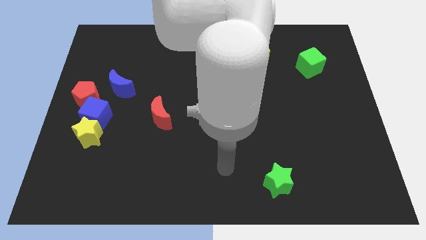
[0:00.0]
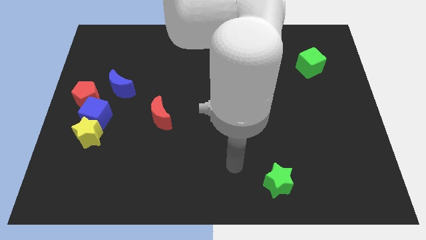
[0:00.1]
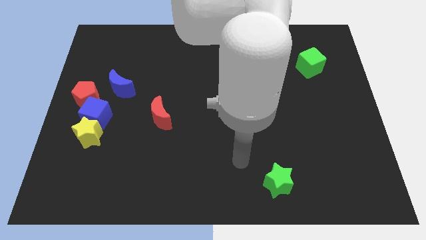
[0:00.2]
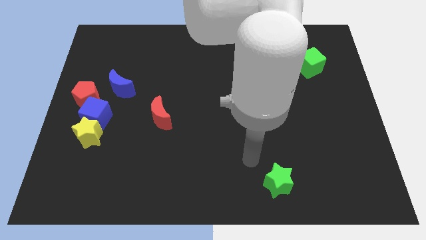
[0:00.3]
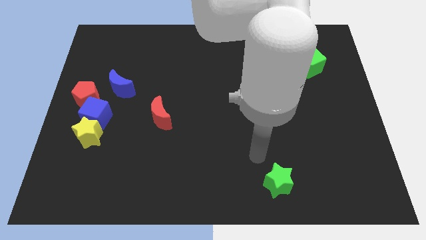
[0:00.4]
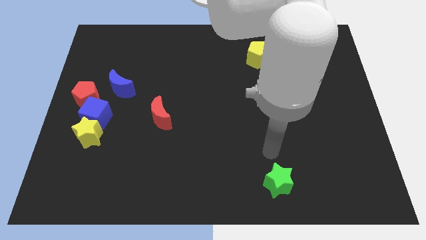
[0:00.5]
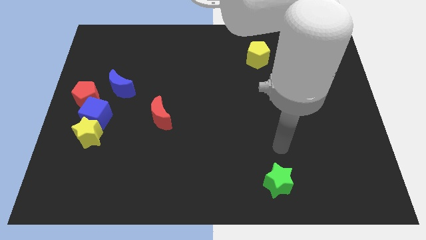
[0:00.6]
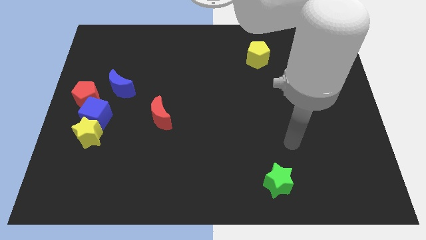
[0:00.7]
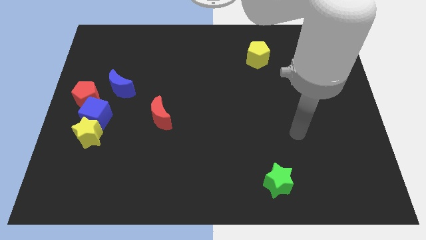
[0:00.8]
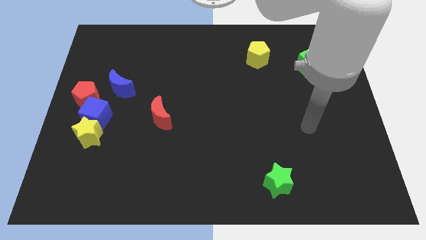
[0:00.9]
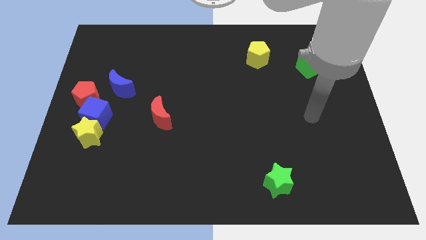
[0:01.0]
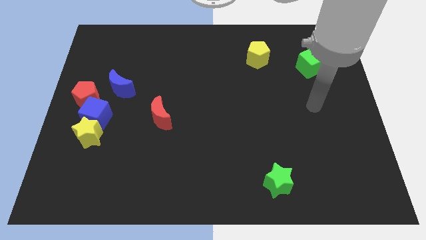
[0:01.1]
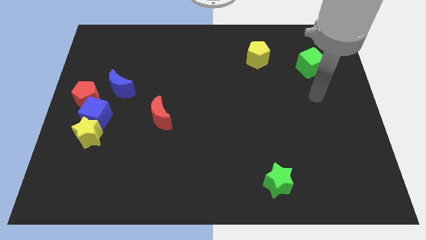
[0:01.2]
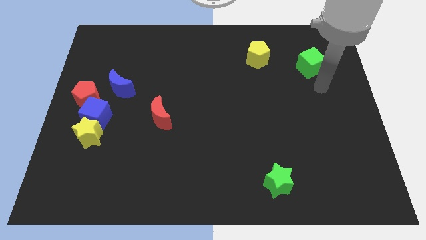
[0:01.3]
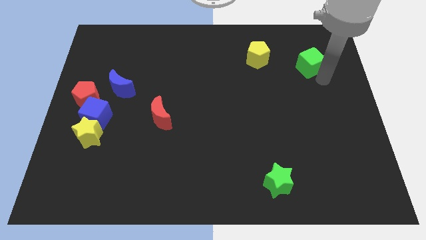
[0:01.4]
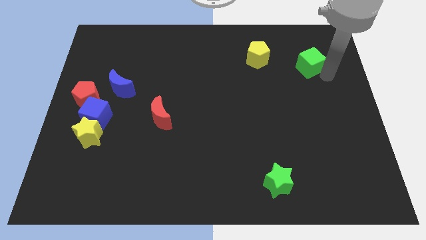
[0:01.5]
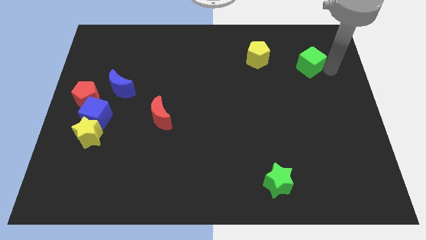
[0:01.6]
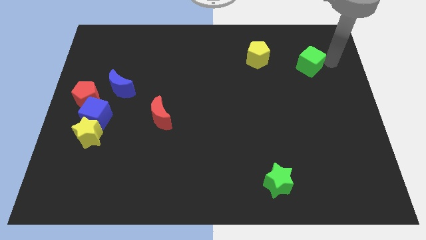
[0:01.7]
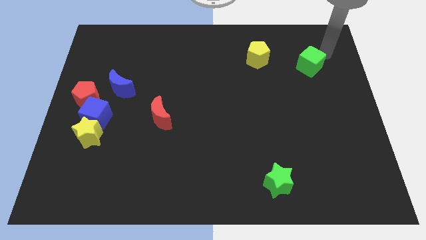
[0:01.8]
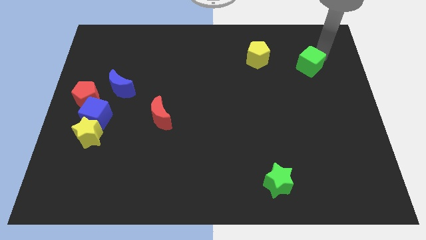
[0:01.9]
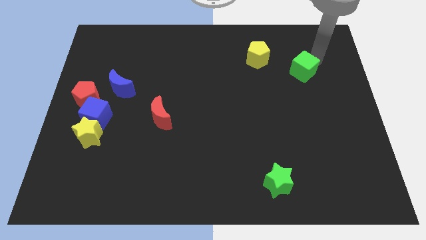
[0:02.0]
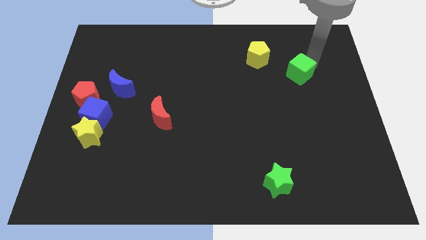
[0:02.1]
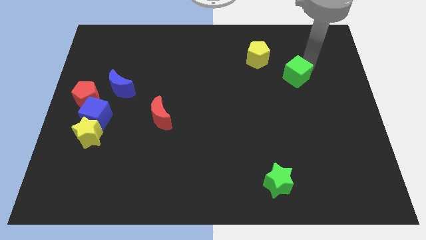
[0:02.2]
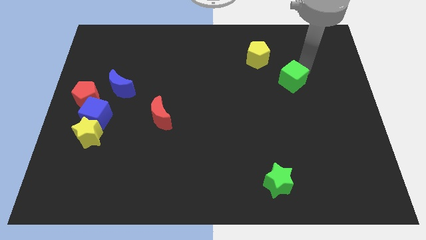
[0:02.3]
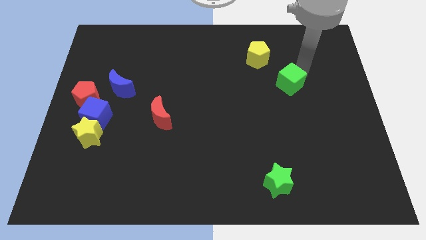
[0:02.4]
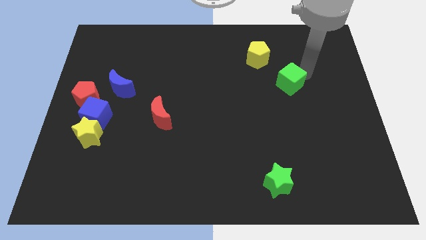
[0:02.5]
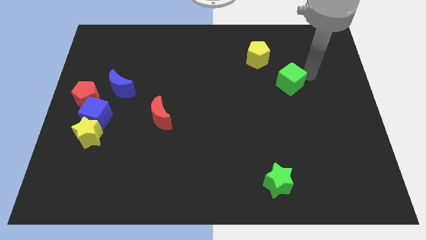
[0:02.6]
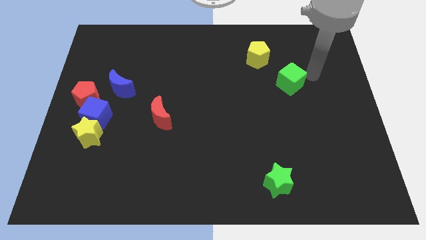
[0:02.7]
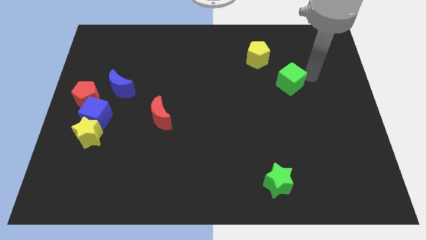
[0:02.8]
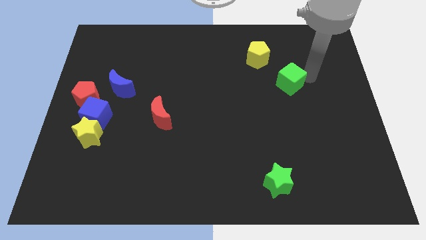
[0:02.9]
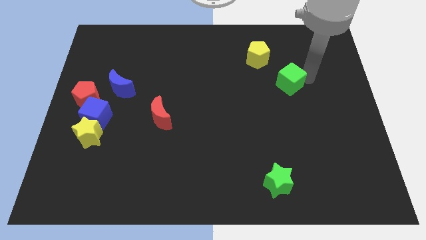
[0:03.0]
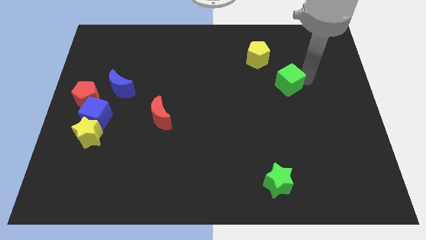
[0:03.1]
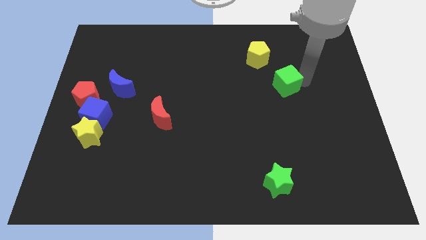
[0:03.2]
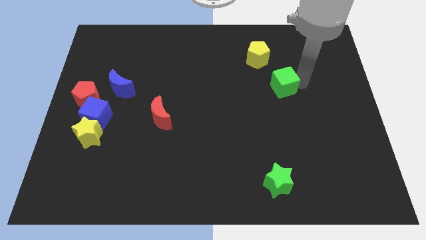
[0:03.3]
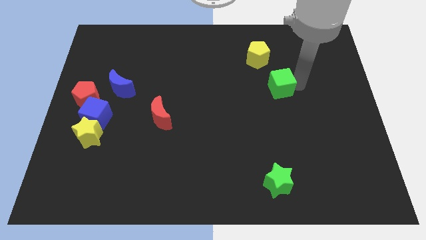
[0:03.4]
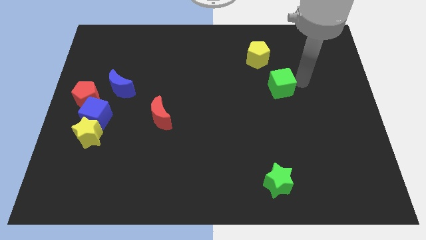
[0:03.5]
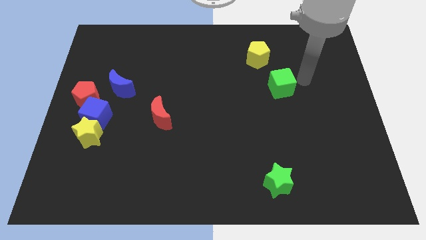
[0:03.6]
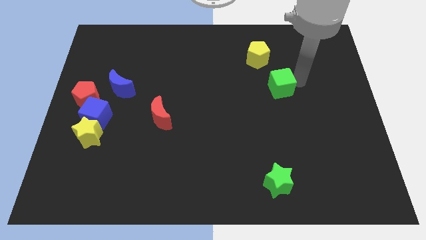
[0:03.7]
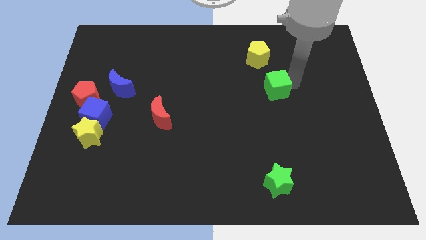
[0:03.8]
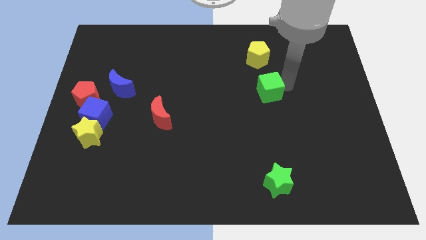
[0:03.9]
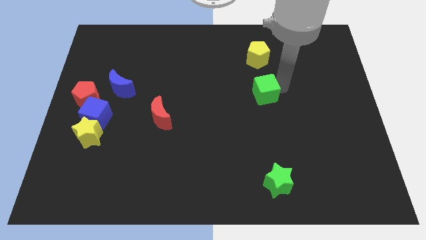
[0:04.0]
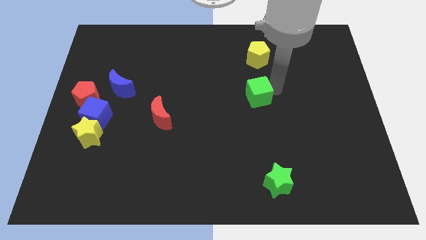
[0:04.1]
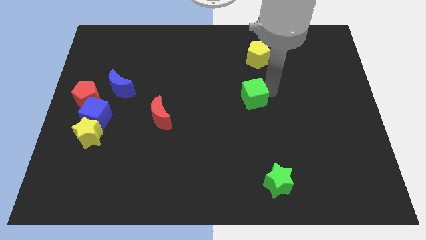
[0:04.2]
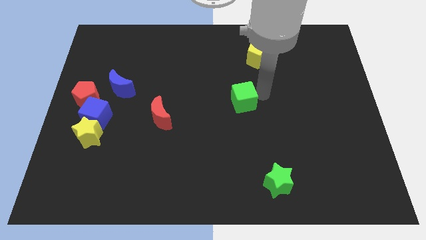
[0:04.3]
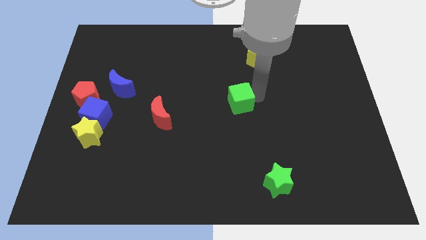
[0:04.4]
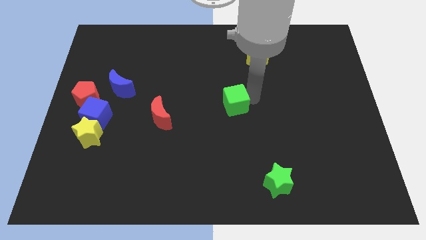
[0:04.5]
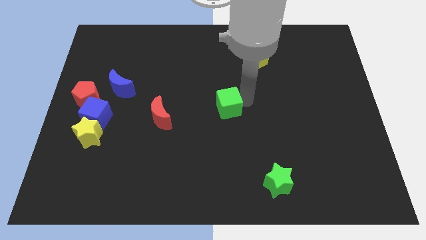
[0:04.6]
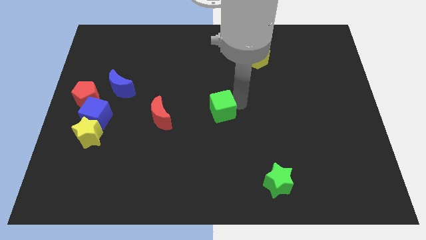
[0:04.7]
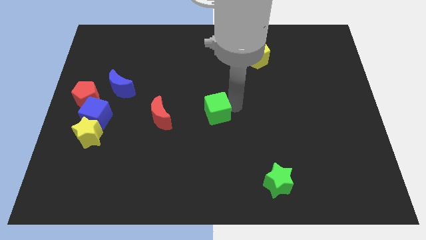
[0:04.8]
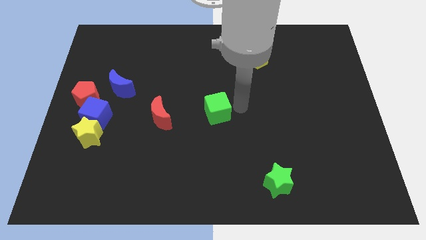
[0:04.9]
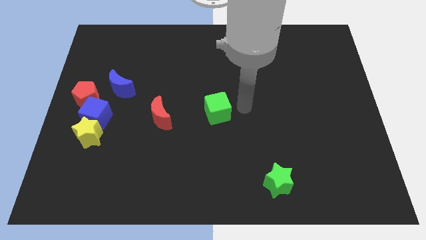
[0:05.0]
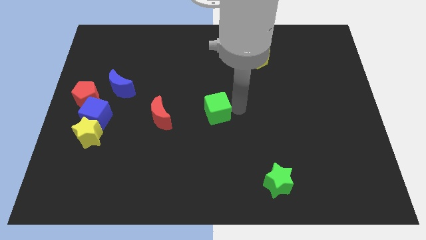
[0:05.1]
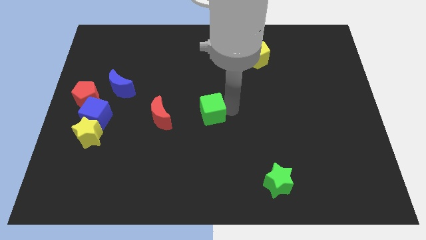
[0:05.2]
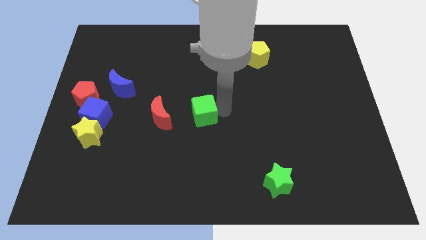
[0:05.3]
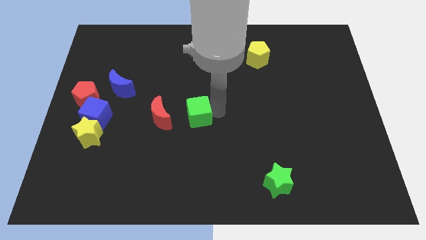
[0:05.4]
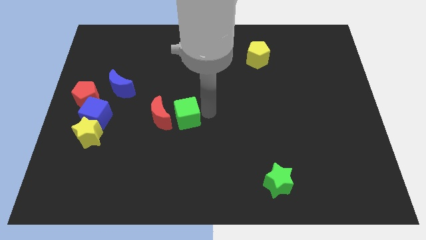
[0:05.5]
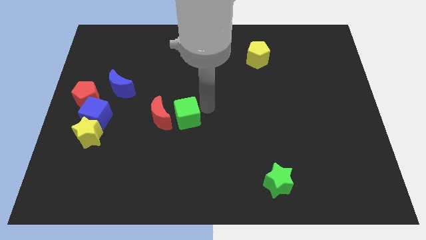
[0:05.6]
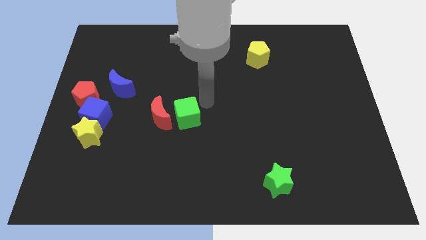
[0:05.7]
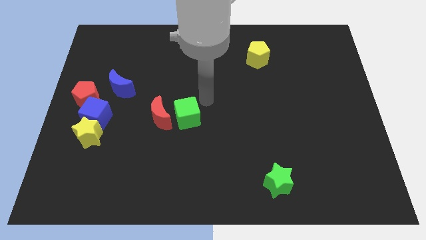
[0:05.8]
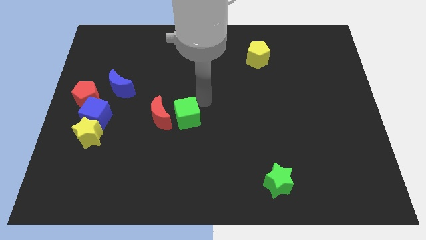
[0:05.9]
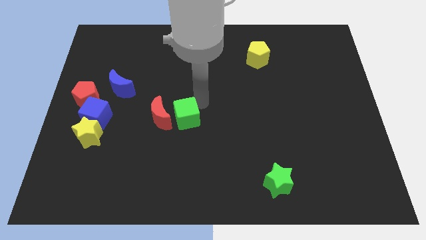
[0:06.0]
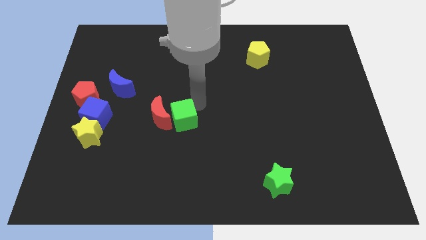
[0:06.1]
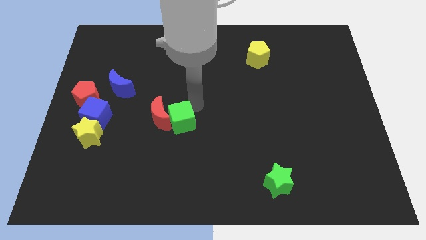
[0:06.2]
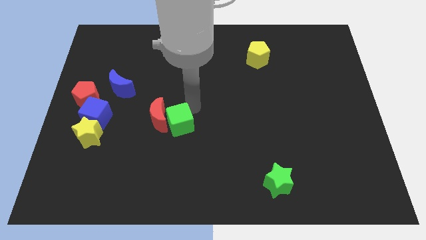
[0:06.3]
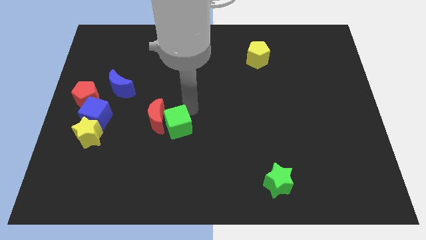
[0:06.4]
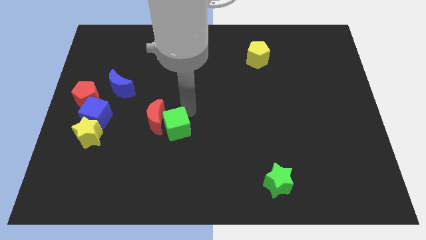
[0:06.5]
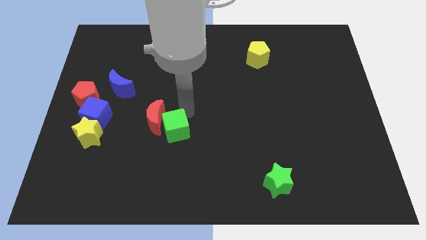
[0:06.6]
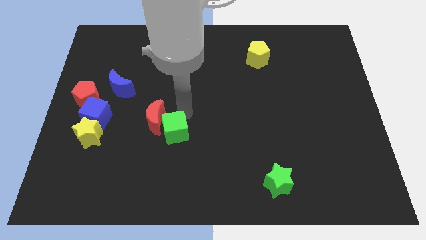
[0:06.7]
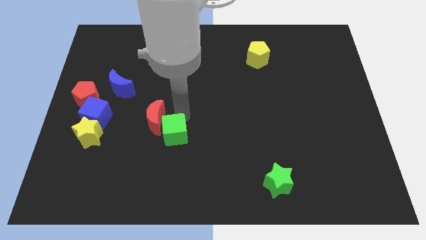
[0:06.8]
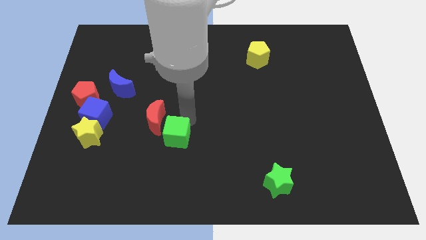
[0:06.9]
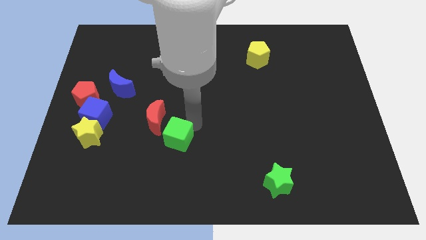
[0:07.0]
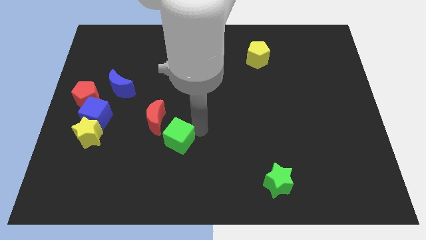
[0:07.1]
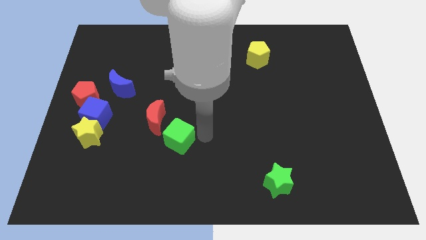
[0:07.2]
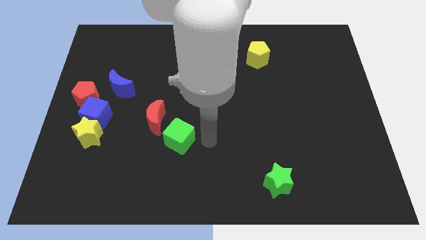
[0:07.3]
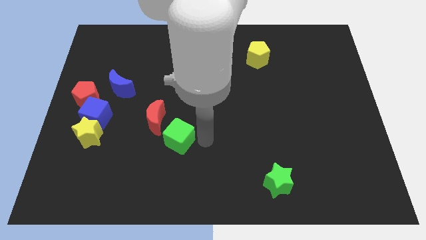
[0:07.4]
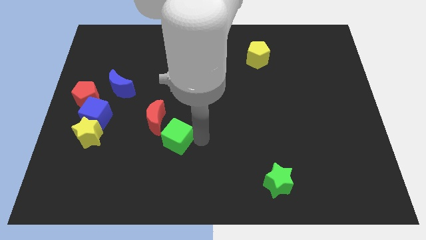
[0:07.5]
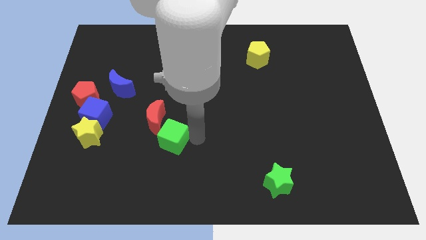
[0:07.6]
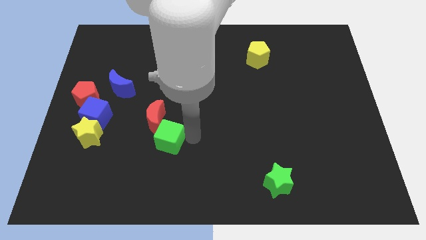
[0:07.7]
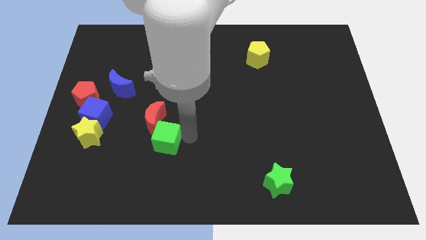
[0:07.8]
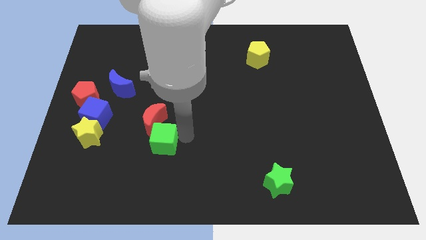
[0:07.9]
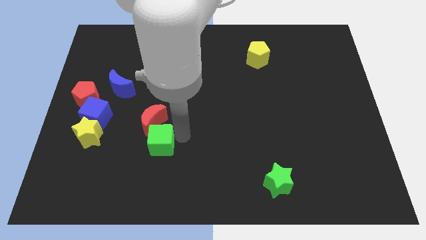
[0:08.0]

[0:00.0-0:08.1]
move the green cube to the right of the yellow star
